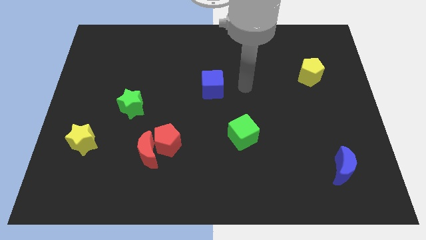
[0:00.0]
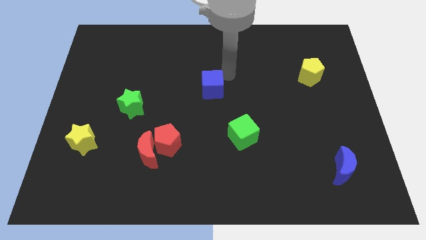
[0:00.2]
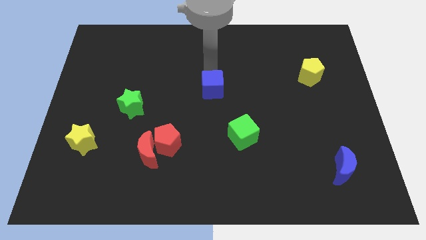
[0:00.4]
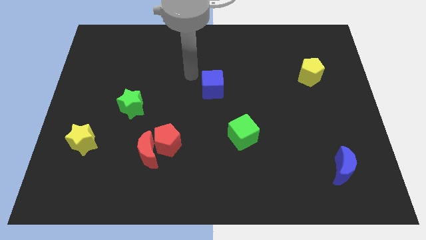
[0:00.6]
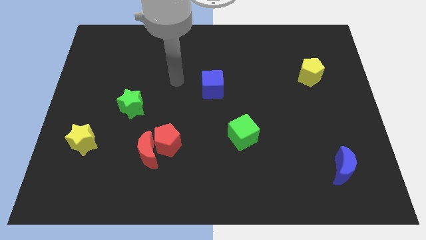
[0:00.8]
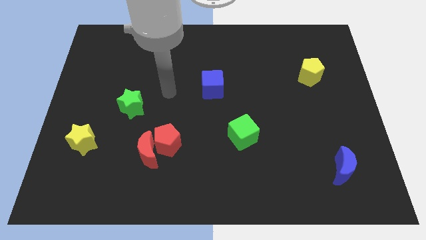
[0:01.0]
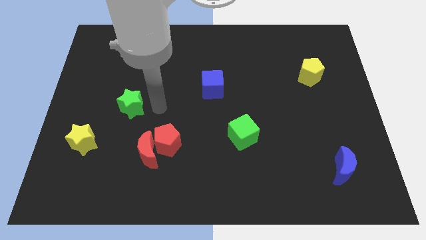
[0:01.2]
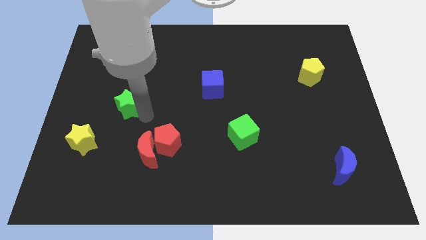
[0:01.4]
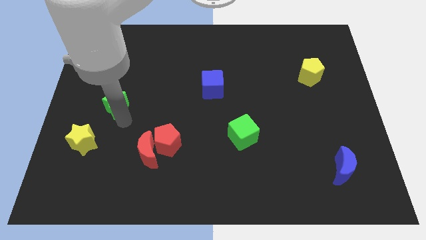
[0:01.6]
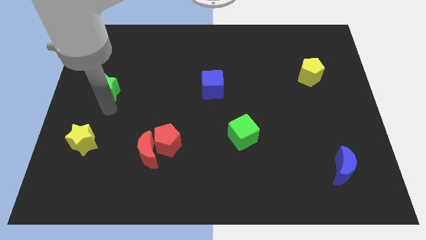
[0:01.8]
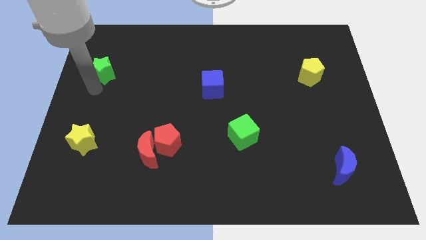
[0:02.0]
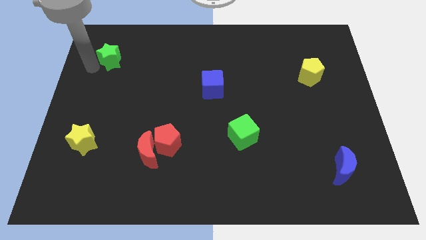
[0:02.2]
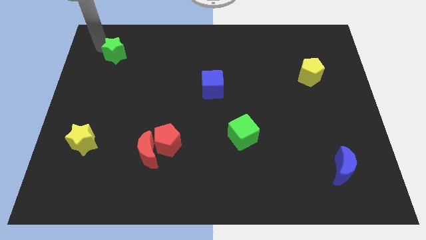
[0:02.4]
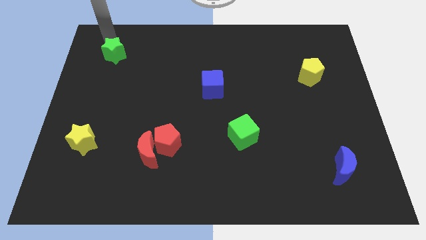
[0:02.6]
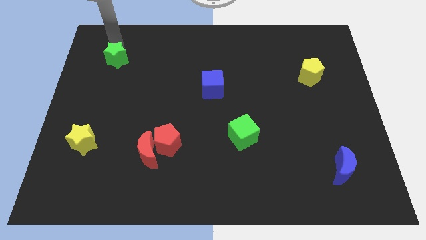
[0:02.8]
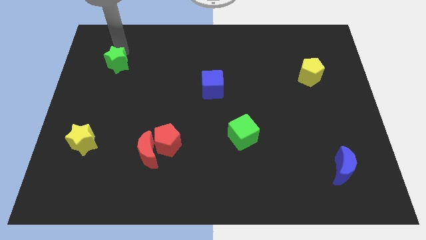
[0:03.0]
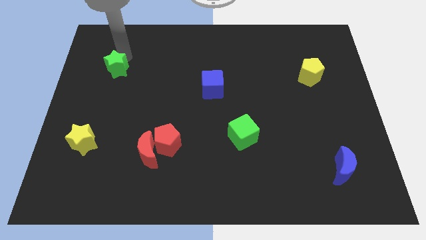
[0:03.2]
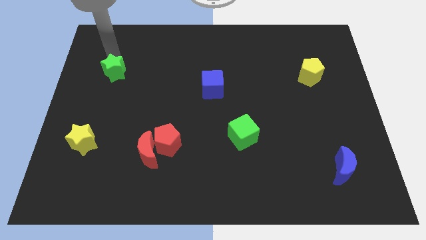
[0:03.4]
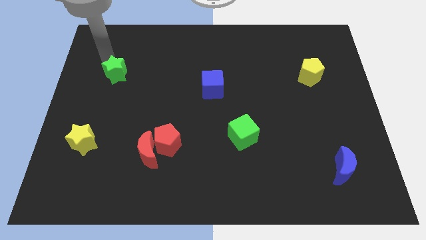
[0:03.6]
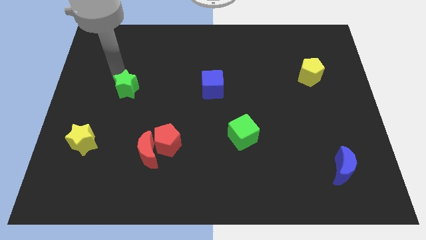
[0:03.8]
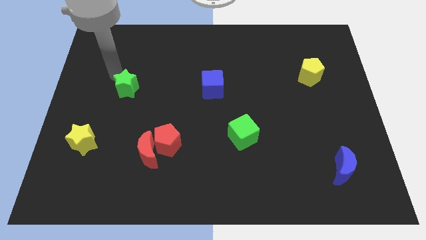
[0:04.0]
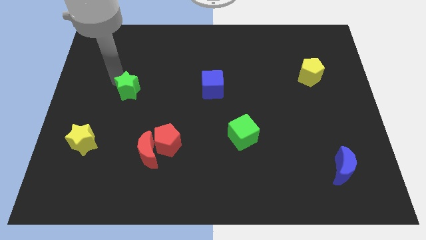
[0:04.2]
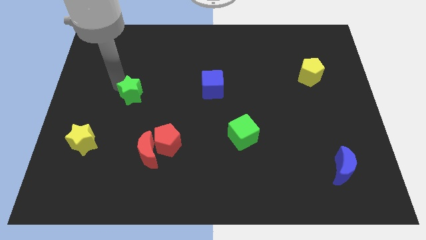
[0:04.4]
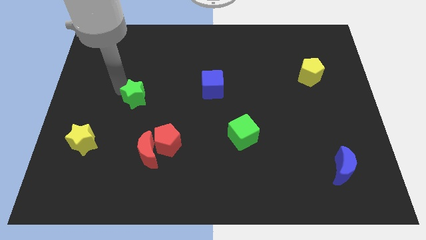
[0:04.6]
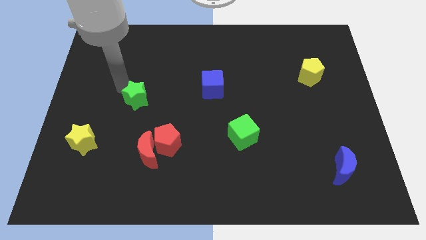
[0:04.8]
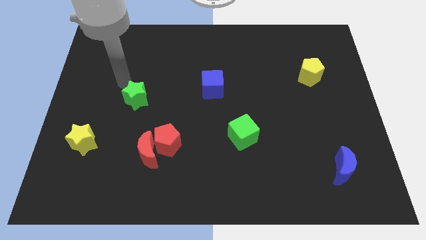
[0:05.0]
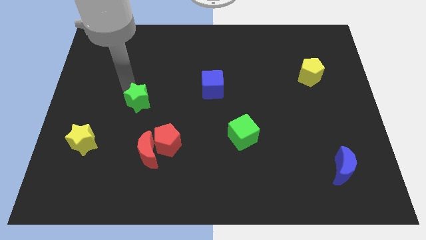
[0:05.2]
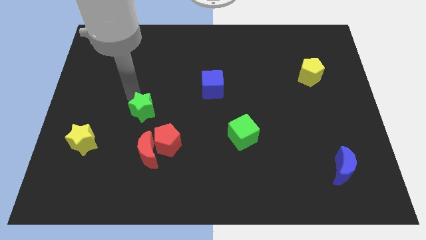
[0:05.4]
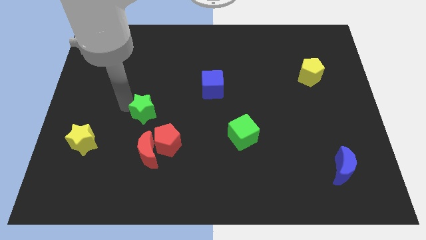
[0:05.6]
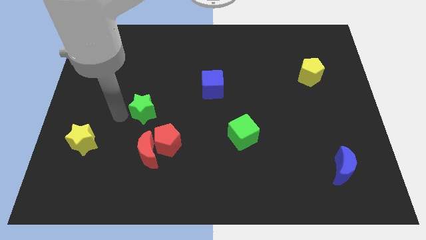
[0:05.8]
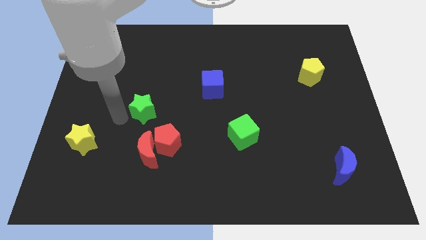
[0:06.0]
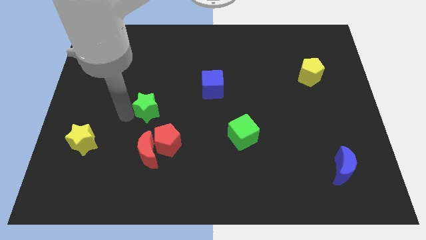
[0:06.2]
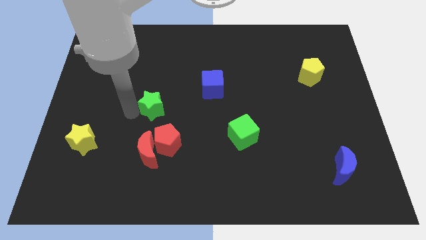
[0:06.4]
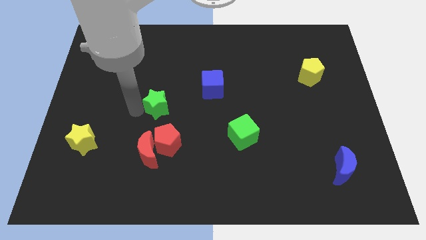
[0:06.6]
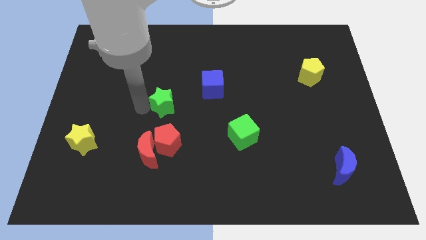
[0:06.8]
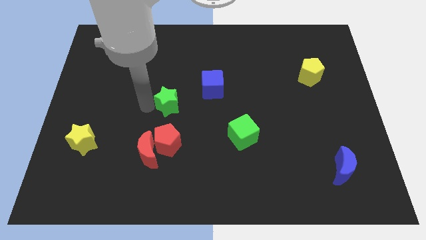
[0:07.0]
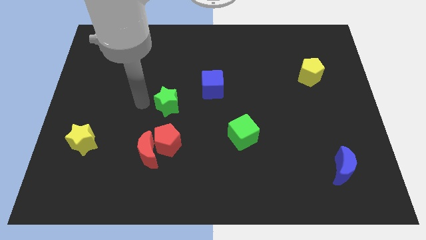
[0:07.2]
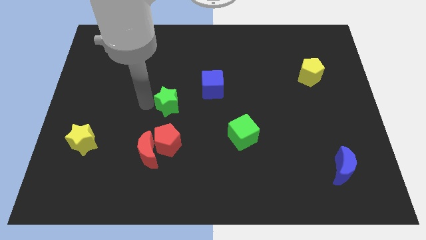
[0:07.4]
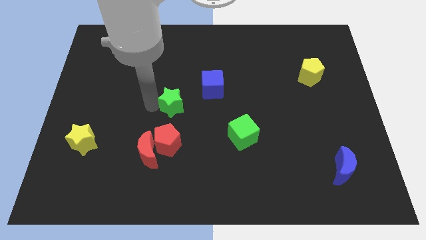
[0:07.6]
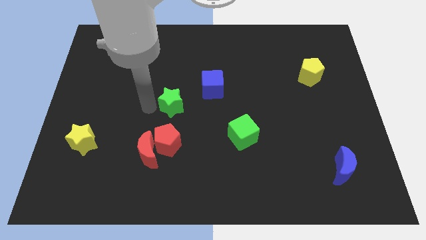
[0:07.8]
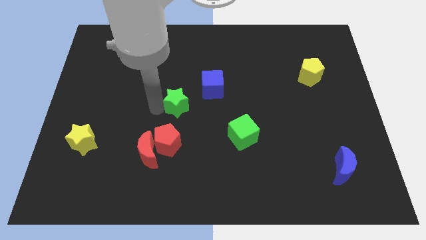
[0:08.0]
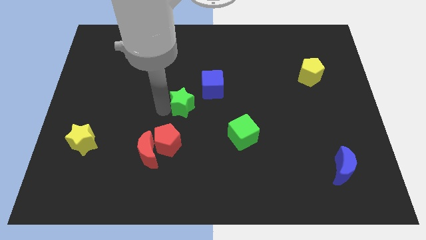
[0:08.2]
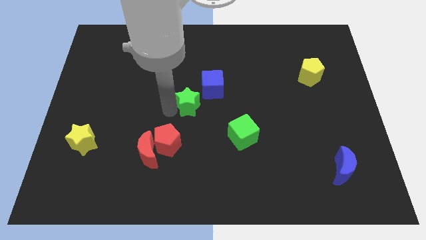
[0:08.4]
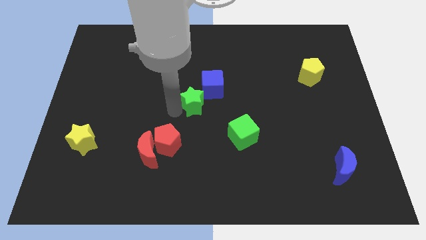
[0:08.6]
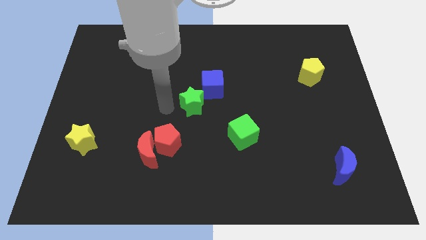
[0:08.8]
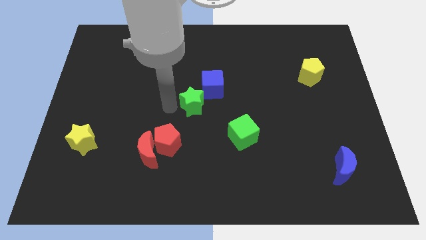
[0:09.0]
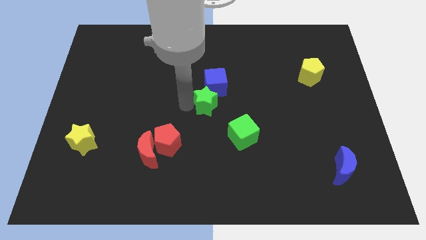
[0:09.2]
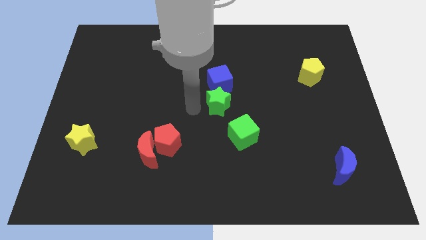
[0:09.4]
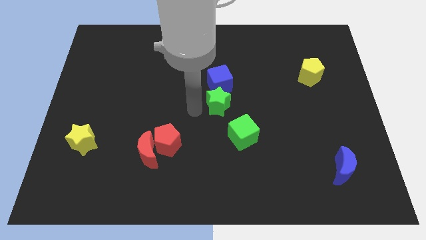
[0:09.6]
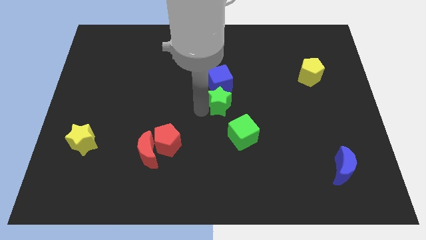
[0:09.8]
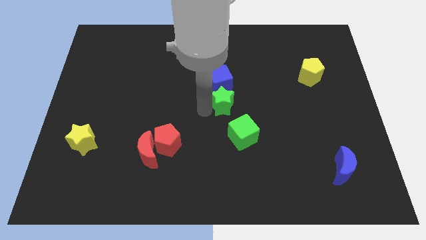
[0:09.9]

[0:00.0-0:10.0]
push the green star to the top side of the green cube

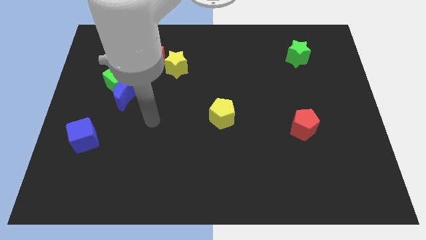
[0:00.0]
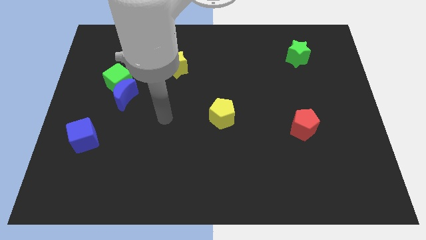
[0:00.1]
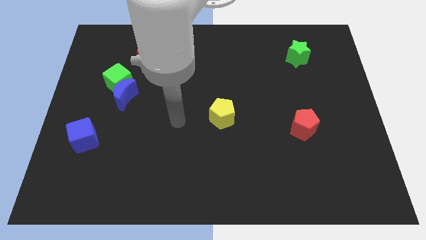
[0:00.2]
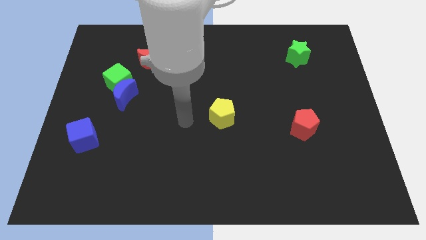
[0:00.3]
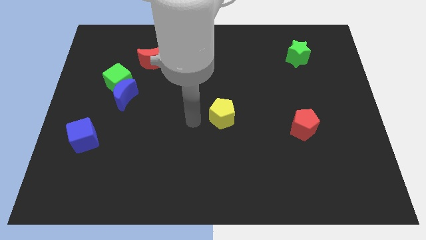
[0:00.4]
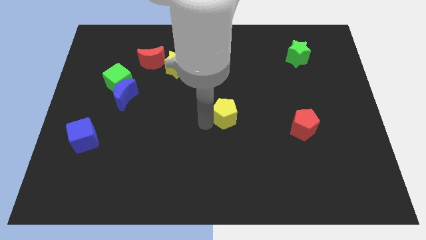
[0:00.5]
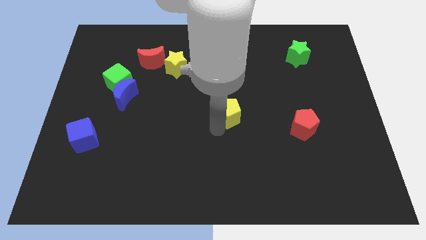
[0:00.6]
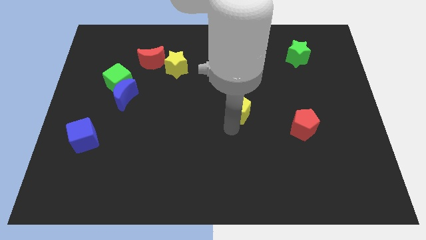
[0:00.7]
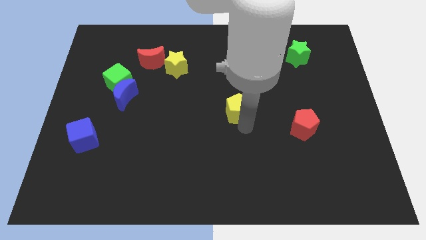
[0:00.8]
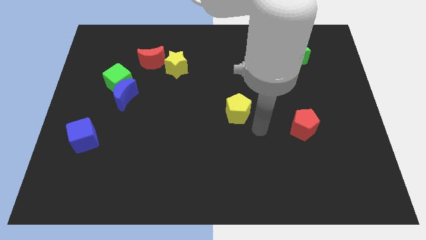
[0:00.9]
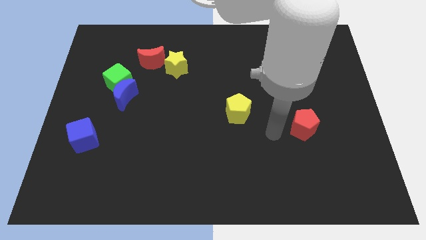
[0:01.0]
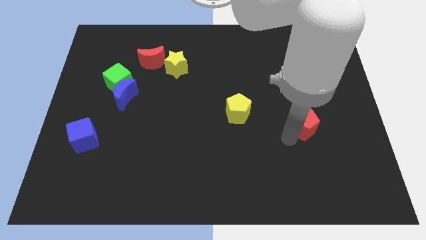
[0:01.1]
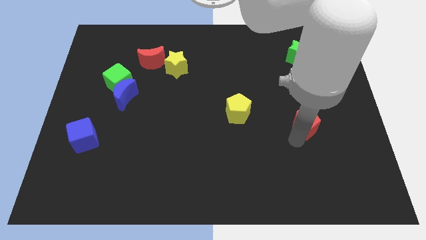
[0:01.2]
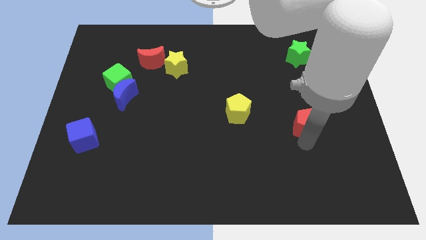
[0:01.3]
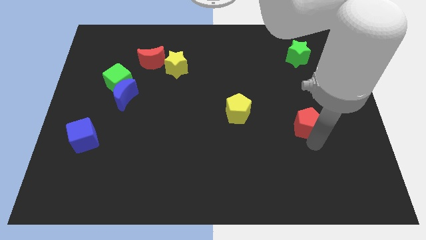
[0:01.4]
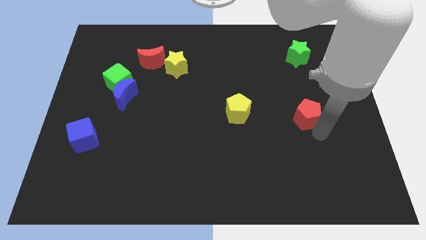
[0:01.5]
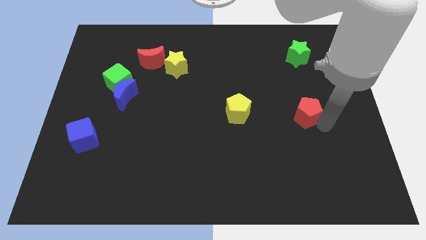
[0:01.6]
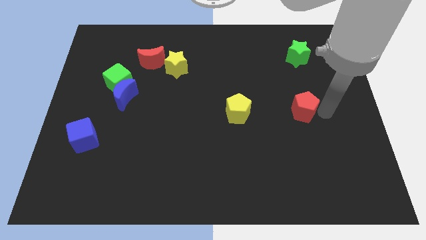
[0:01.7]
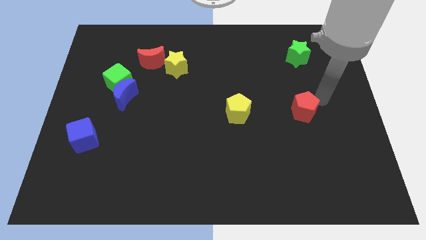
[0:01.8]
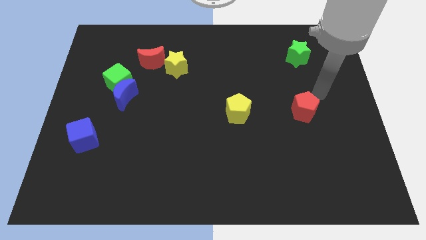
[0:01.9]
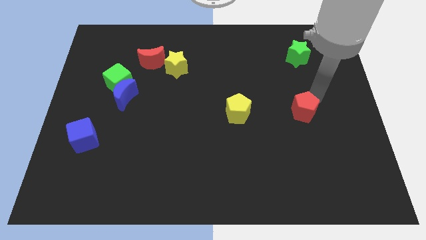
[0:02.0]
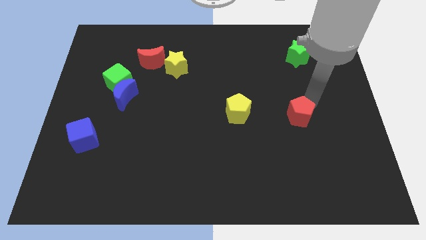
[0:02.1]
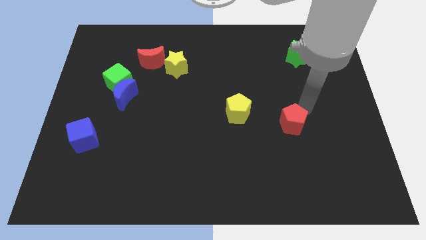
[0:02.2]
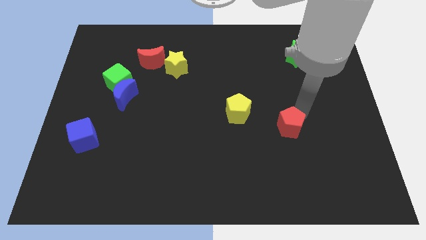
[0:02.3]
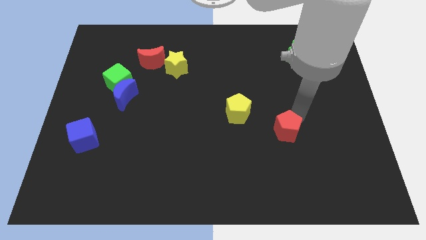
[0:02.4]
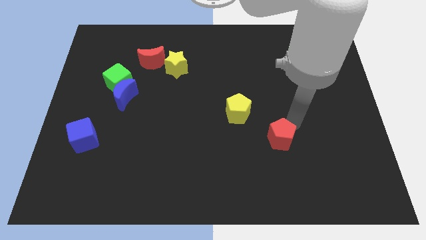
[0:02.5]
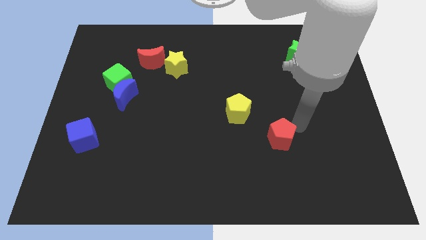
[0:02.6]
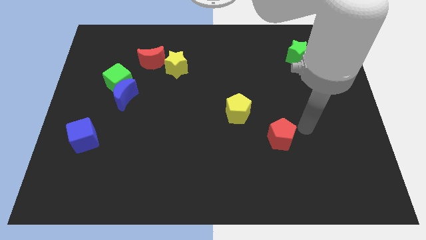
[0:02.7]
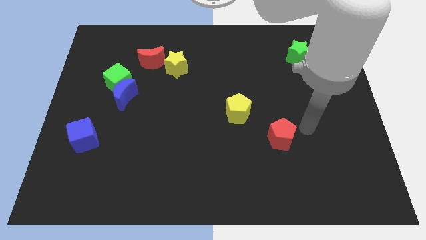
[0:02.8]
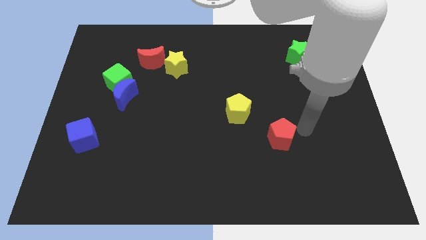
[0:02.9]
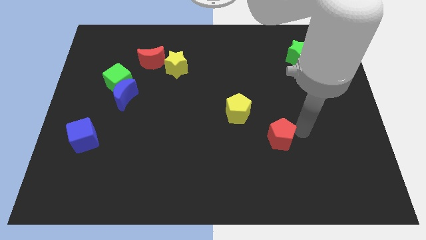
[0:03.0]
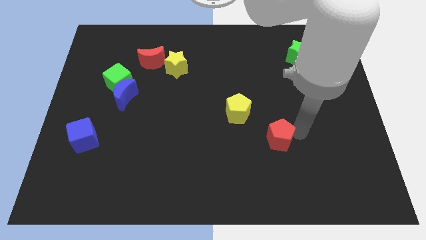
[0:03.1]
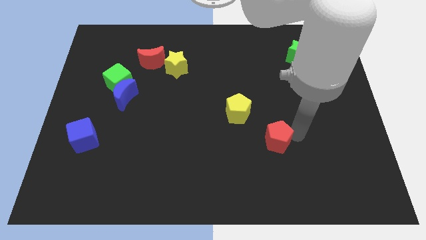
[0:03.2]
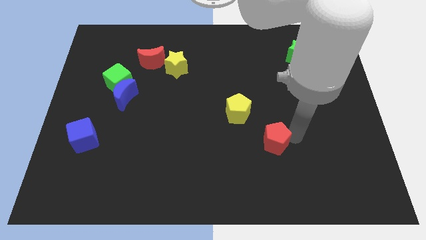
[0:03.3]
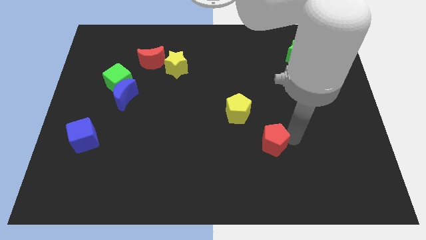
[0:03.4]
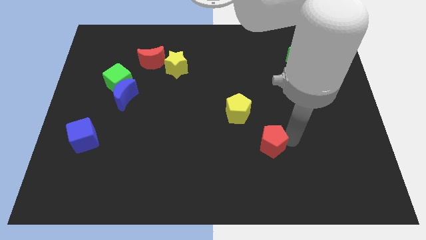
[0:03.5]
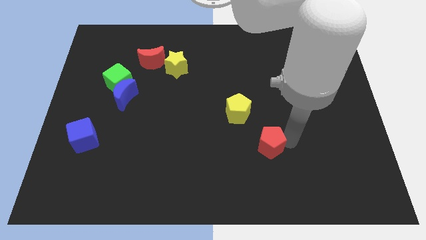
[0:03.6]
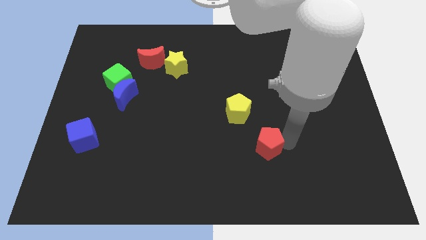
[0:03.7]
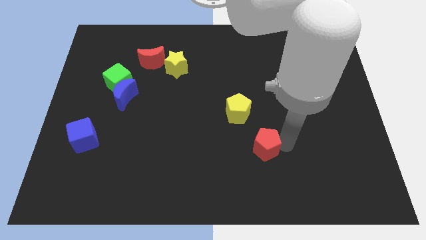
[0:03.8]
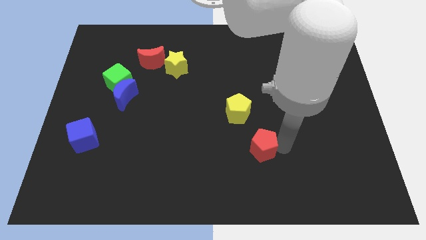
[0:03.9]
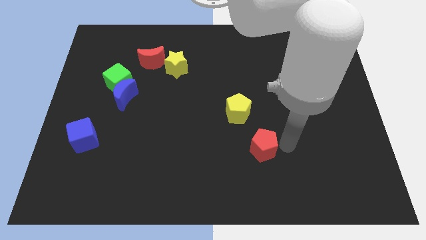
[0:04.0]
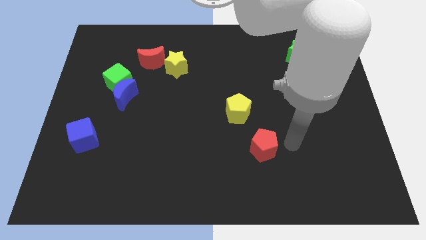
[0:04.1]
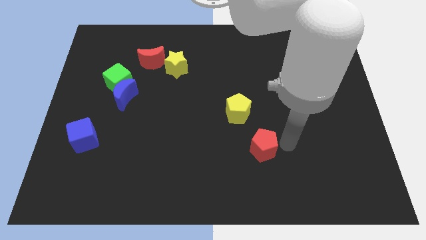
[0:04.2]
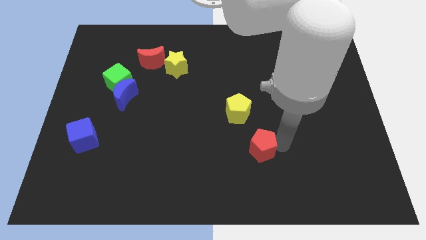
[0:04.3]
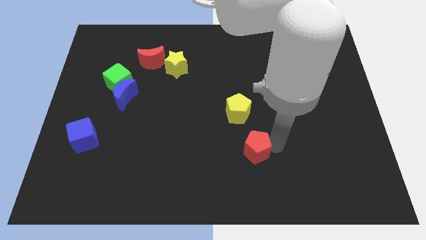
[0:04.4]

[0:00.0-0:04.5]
move the red pentagon to the bottom side of the yellow pentagon
